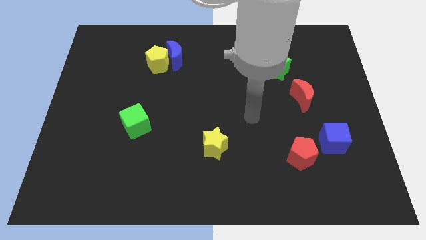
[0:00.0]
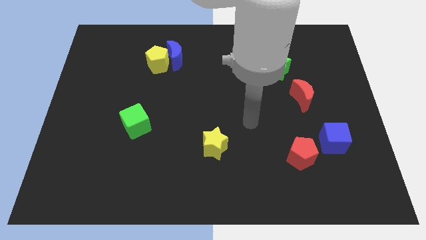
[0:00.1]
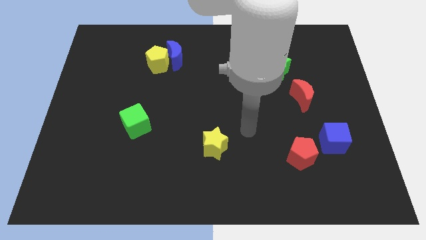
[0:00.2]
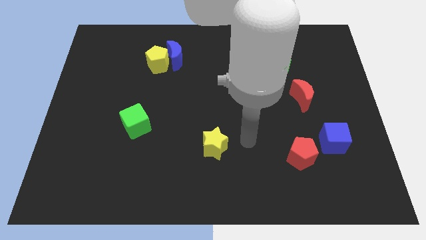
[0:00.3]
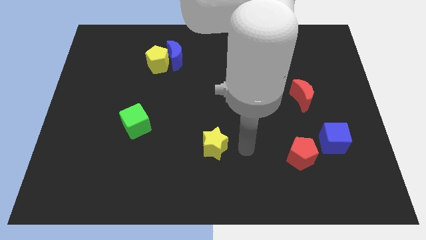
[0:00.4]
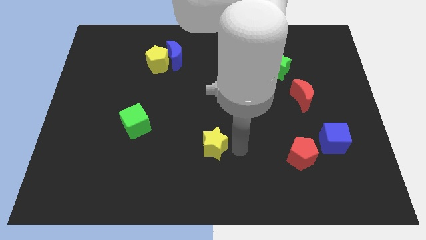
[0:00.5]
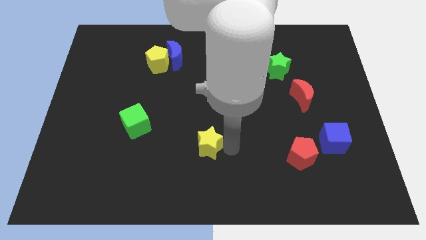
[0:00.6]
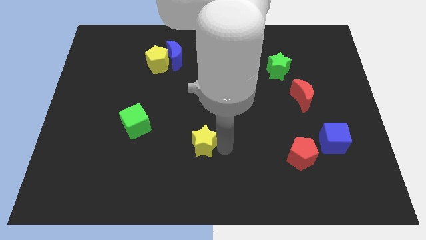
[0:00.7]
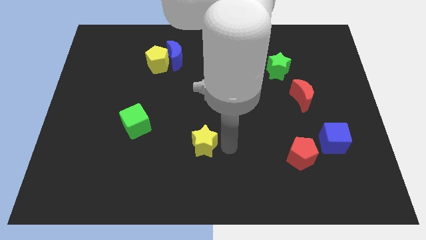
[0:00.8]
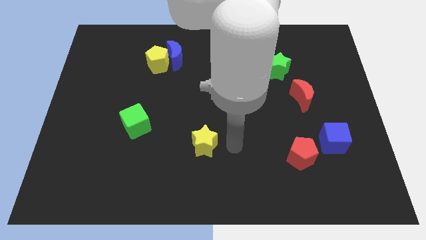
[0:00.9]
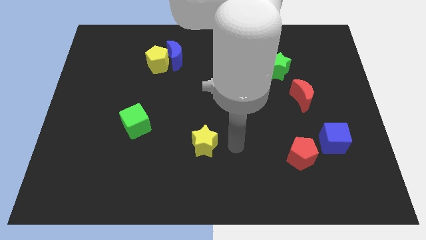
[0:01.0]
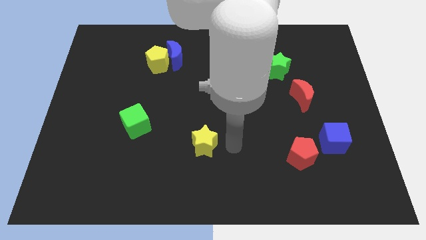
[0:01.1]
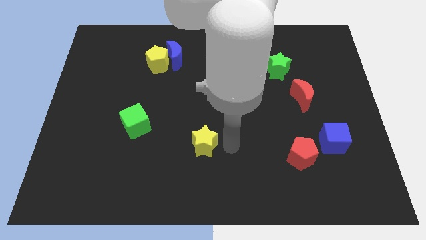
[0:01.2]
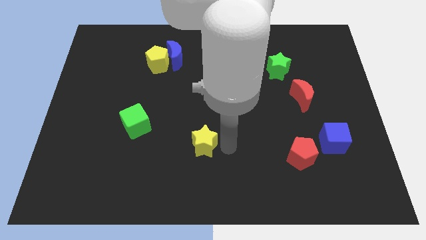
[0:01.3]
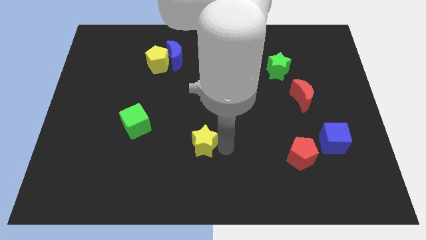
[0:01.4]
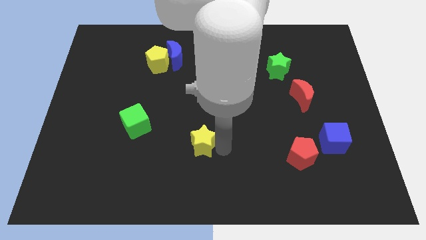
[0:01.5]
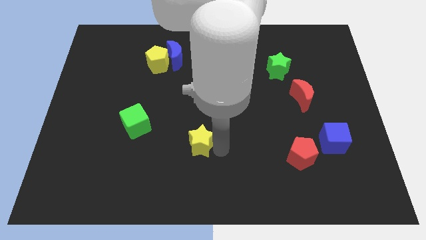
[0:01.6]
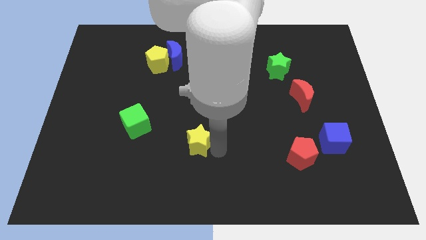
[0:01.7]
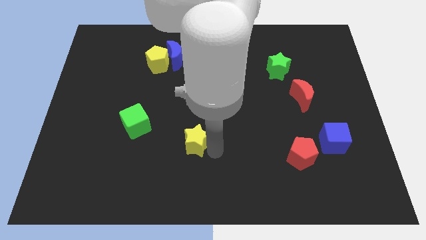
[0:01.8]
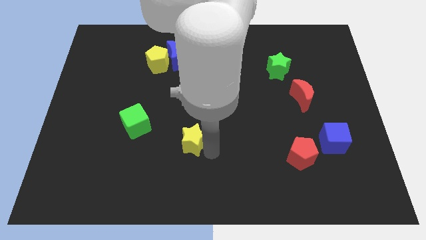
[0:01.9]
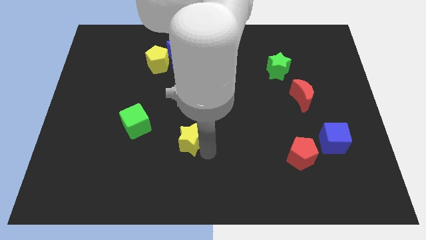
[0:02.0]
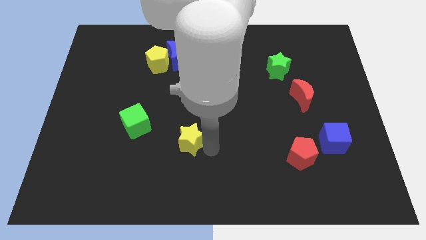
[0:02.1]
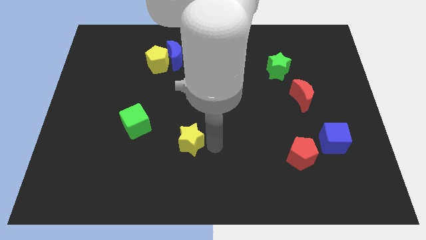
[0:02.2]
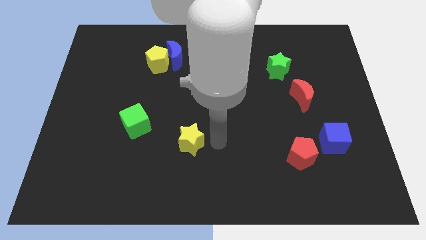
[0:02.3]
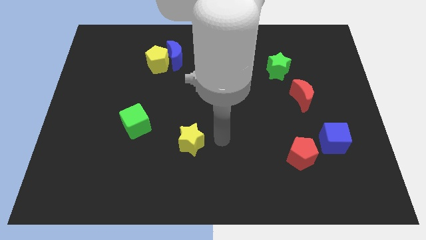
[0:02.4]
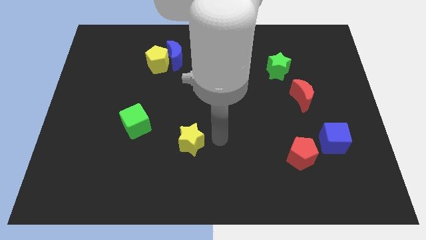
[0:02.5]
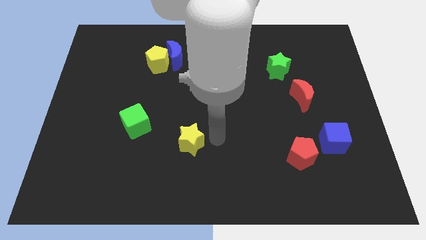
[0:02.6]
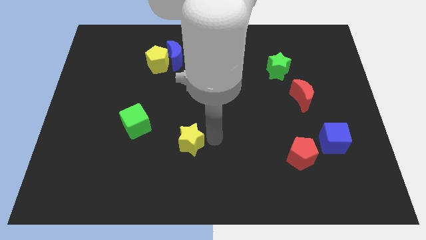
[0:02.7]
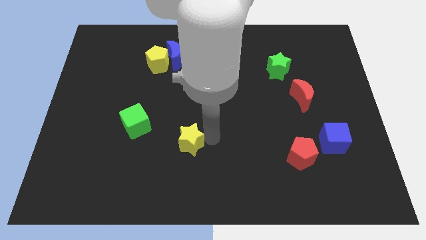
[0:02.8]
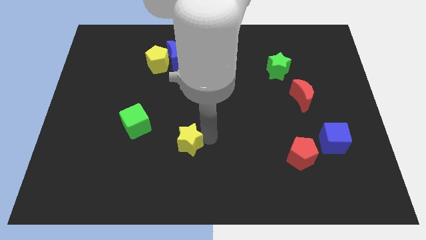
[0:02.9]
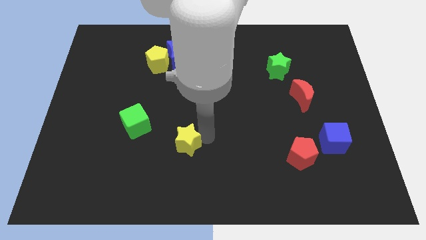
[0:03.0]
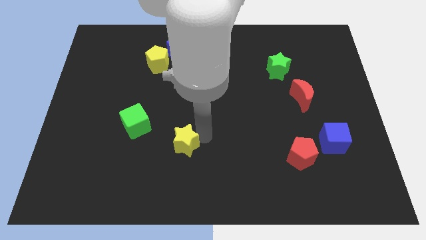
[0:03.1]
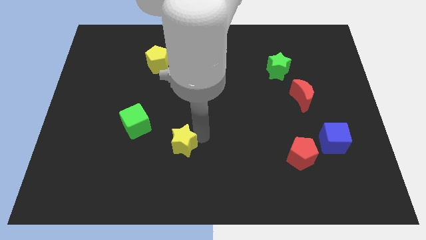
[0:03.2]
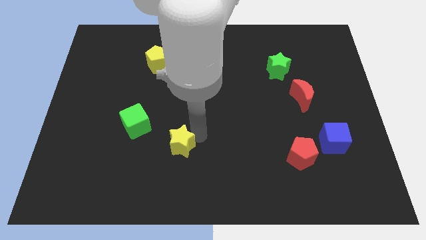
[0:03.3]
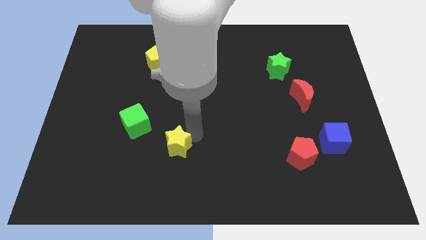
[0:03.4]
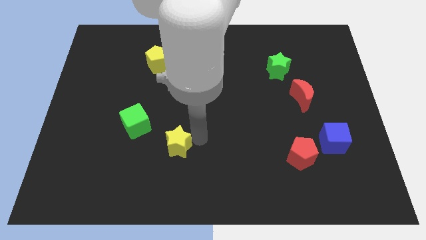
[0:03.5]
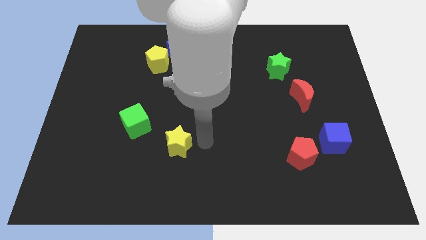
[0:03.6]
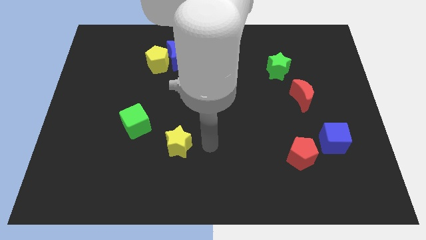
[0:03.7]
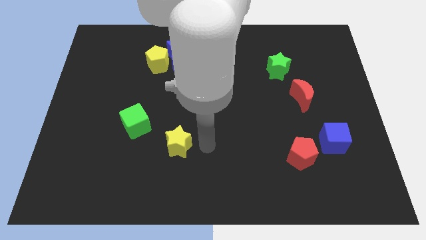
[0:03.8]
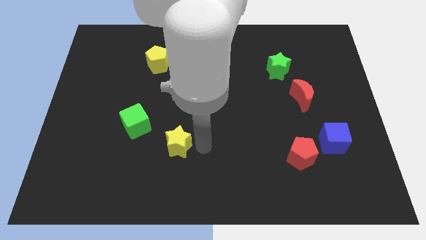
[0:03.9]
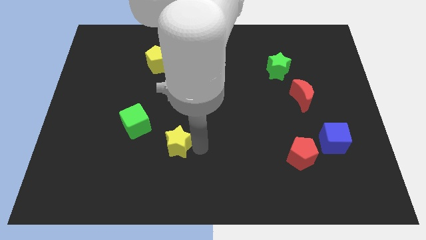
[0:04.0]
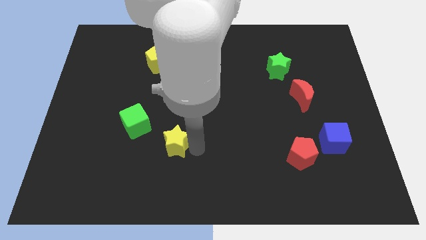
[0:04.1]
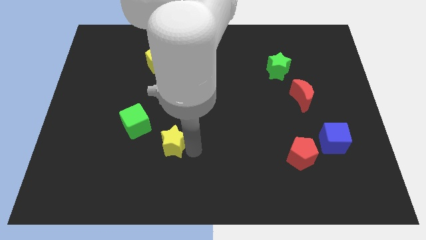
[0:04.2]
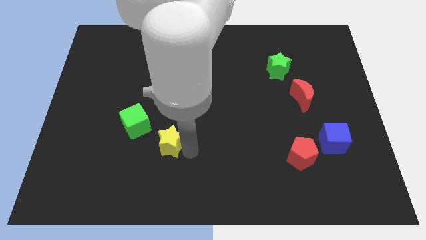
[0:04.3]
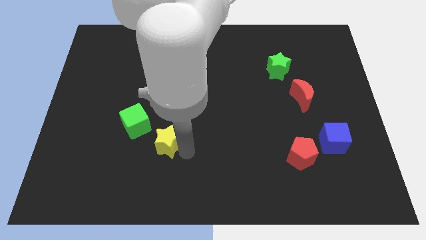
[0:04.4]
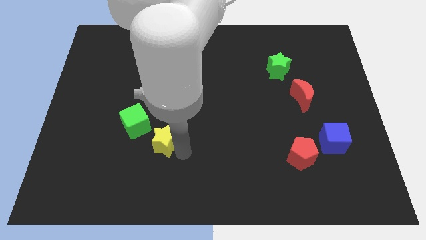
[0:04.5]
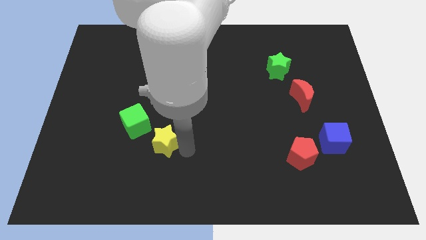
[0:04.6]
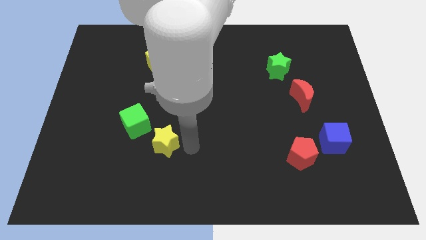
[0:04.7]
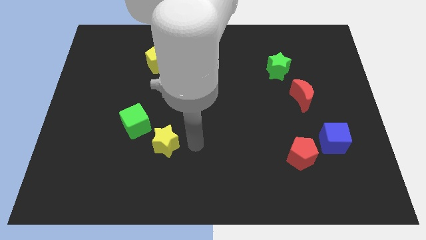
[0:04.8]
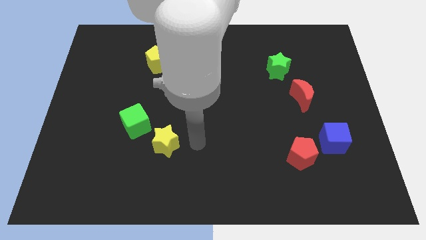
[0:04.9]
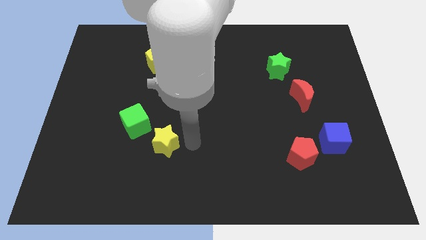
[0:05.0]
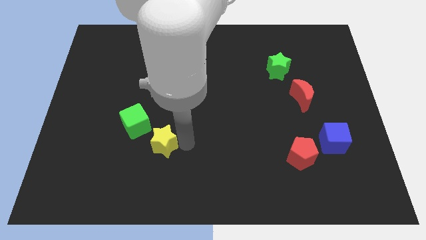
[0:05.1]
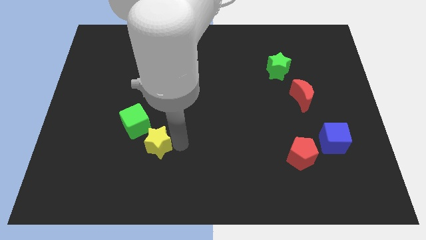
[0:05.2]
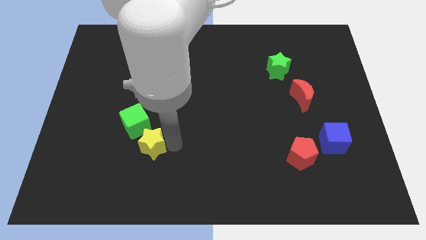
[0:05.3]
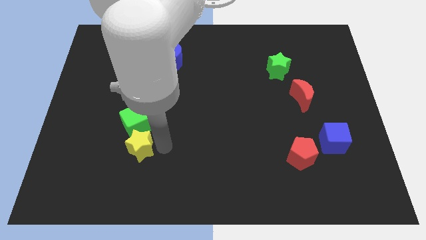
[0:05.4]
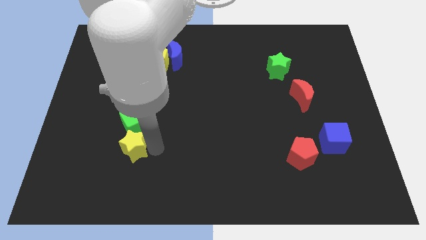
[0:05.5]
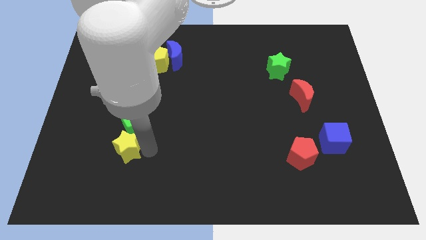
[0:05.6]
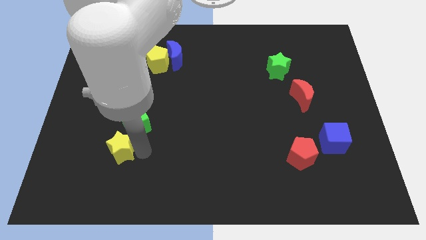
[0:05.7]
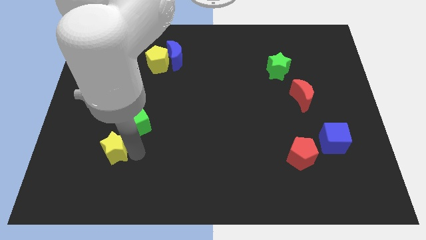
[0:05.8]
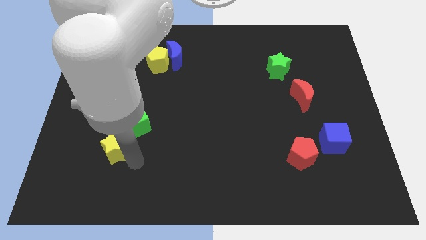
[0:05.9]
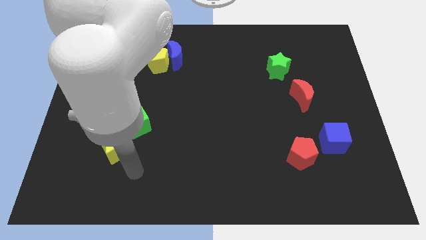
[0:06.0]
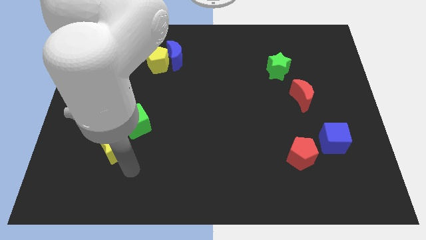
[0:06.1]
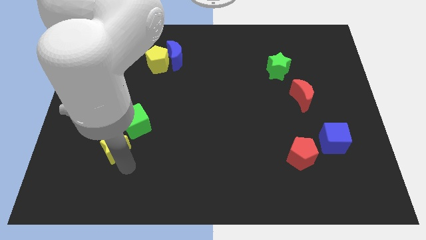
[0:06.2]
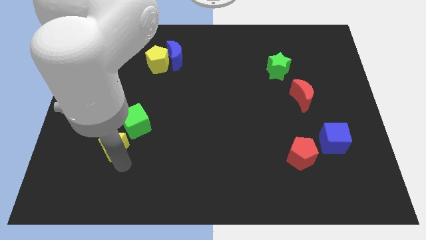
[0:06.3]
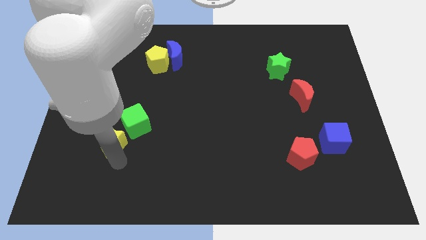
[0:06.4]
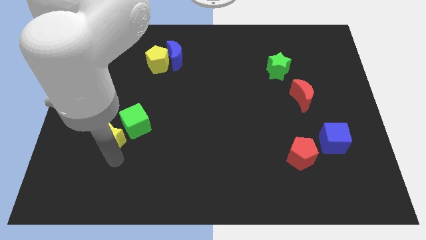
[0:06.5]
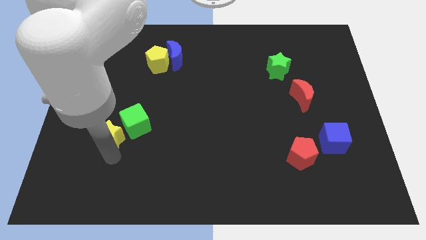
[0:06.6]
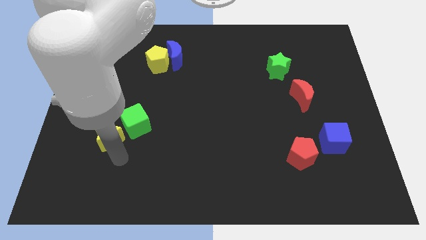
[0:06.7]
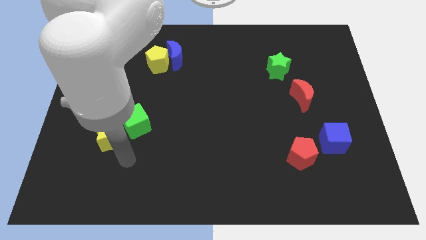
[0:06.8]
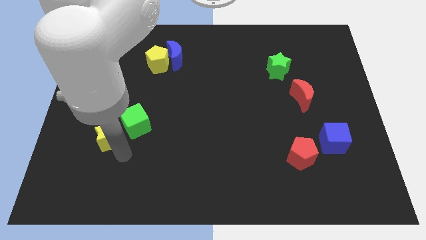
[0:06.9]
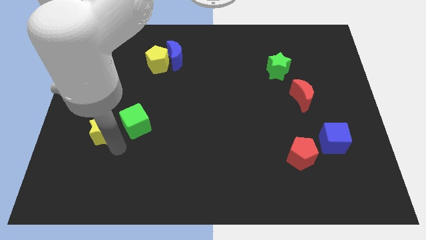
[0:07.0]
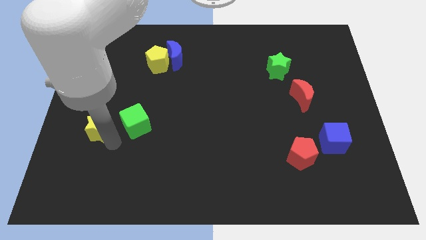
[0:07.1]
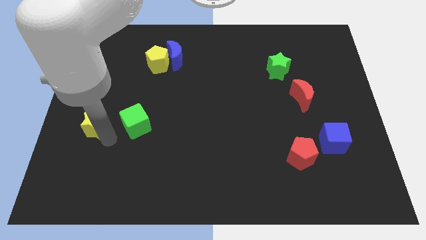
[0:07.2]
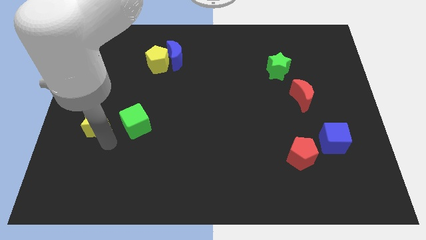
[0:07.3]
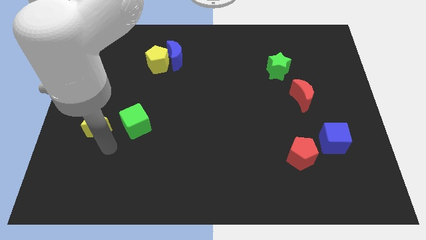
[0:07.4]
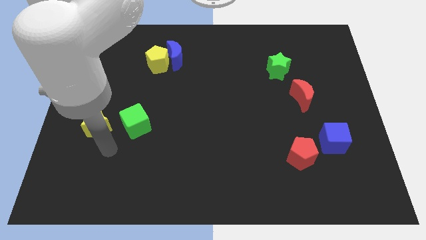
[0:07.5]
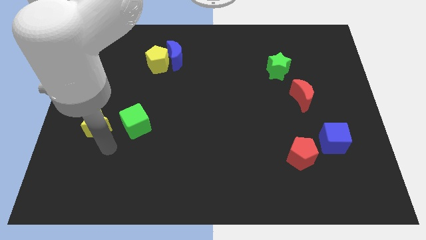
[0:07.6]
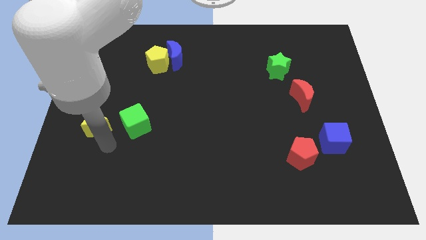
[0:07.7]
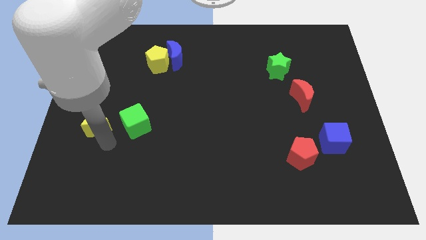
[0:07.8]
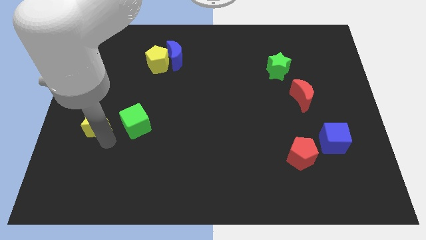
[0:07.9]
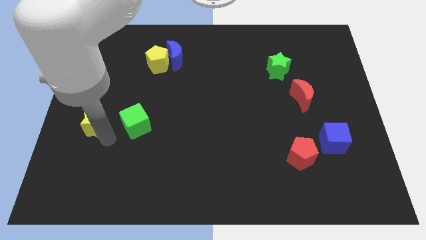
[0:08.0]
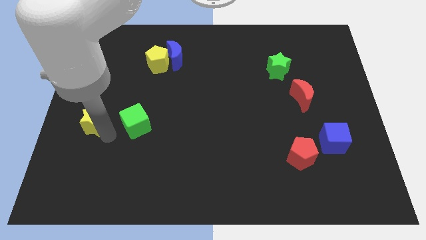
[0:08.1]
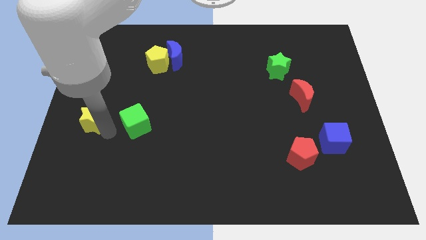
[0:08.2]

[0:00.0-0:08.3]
put the yellow star to the center left
